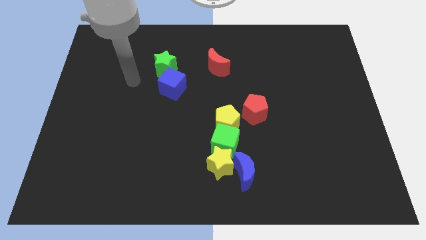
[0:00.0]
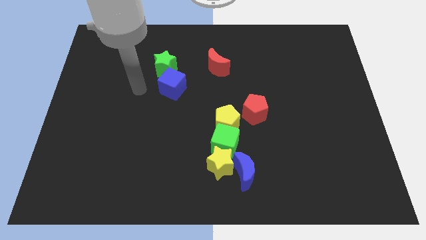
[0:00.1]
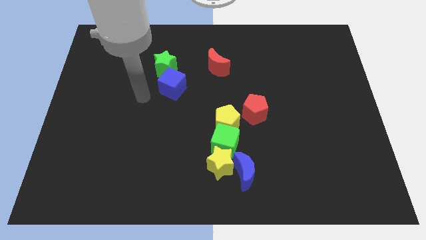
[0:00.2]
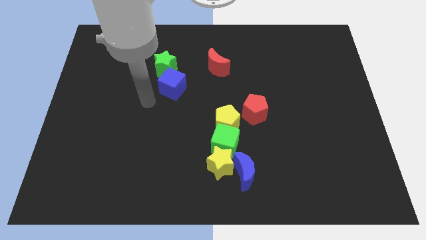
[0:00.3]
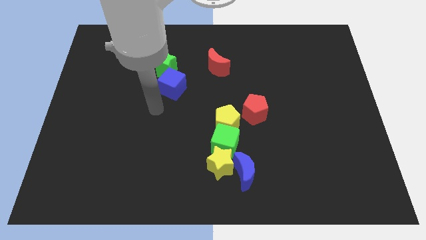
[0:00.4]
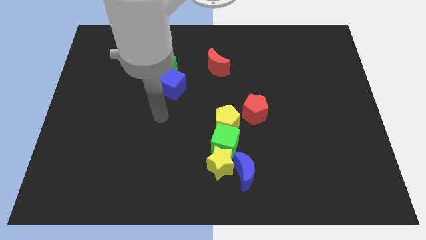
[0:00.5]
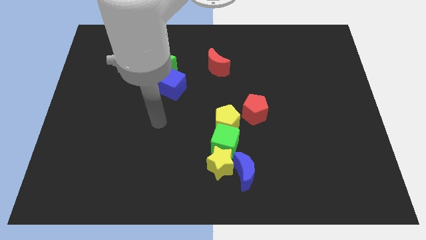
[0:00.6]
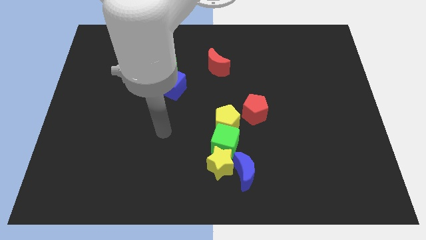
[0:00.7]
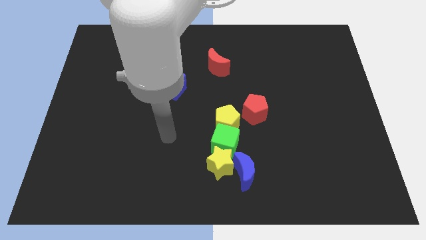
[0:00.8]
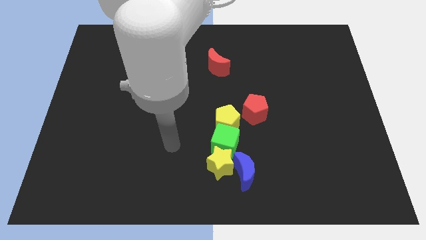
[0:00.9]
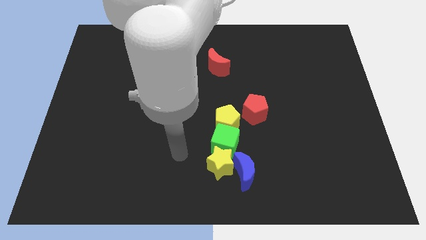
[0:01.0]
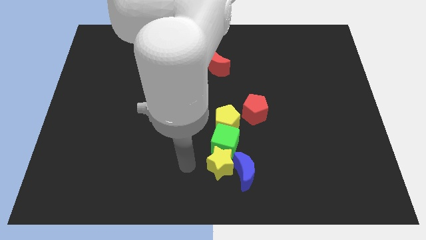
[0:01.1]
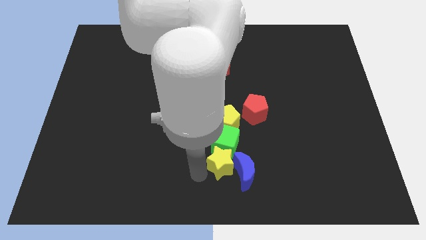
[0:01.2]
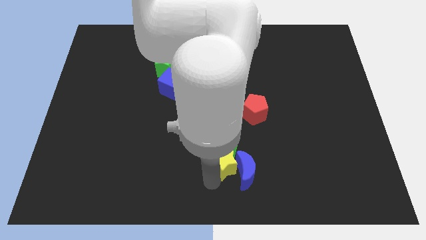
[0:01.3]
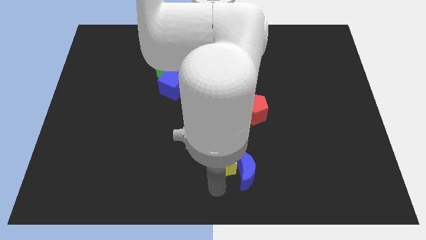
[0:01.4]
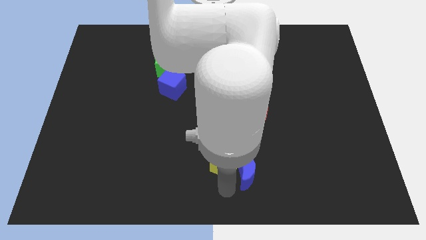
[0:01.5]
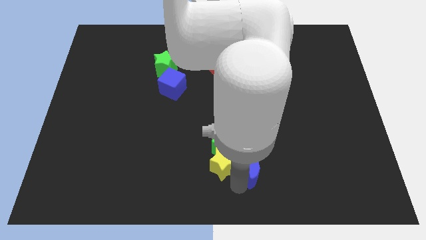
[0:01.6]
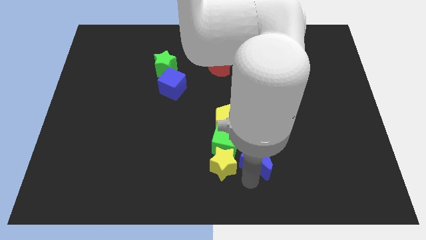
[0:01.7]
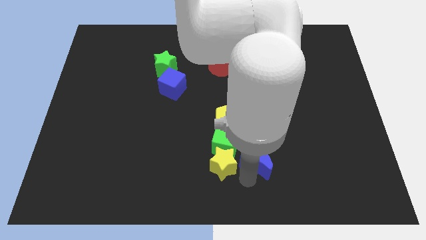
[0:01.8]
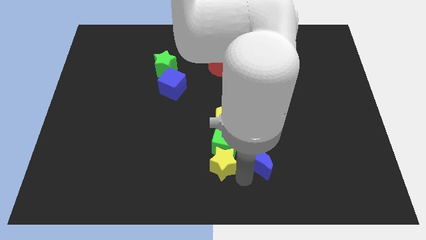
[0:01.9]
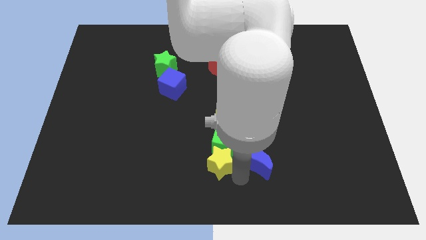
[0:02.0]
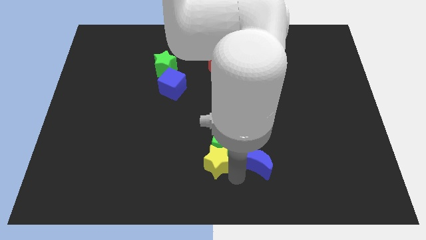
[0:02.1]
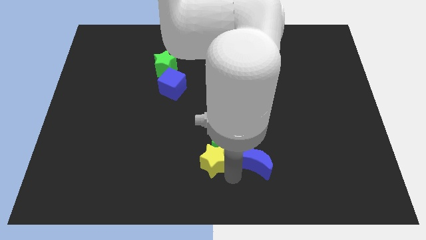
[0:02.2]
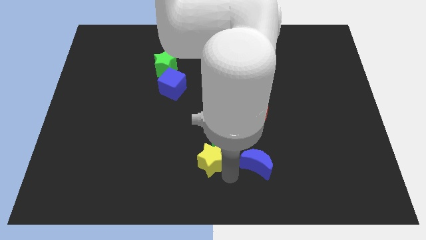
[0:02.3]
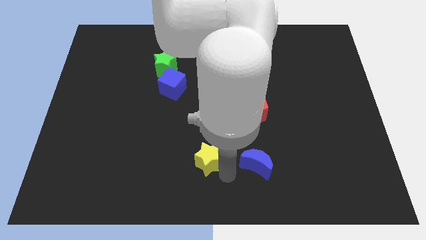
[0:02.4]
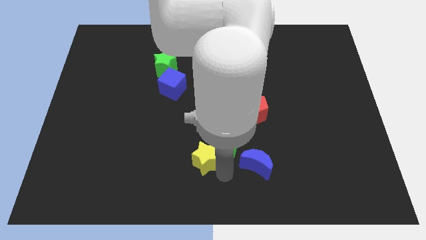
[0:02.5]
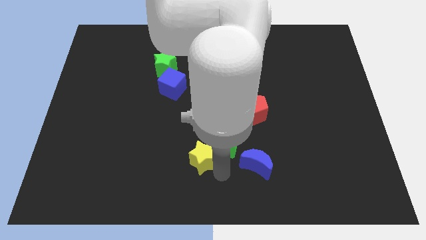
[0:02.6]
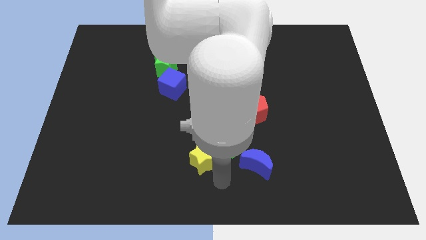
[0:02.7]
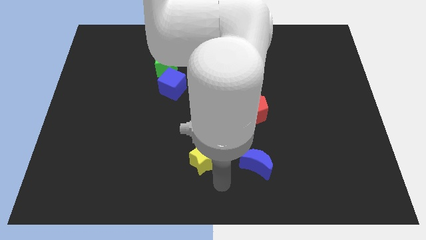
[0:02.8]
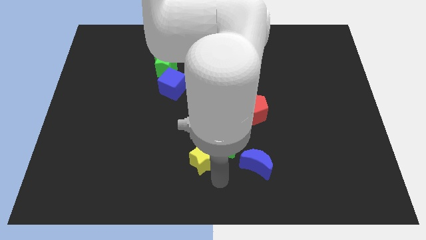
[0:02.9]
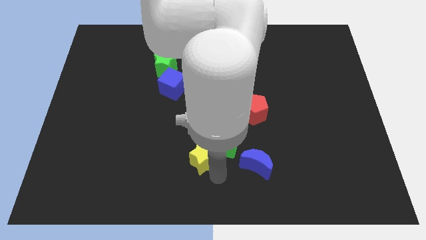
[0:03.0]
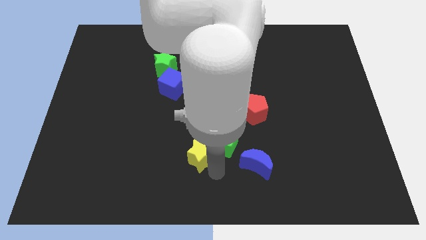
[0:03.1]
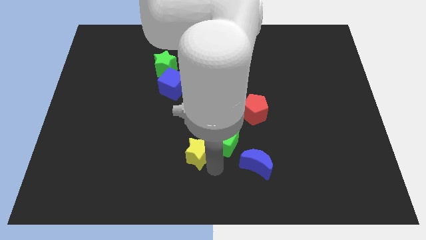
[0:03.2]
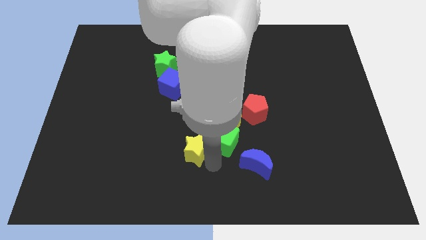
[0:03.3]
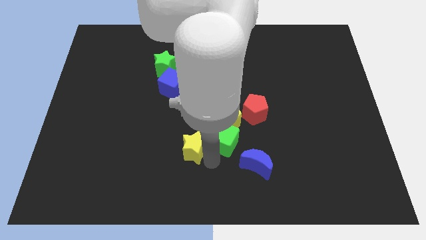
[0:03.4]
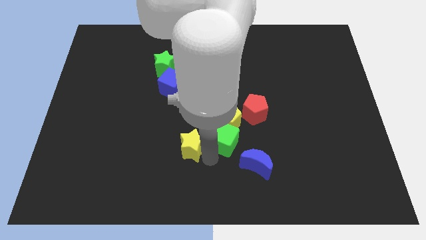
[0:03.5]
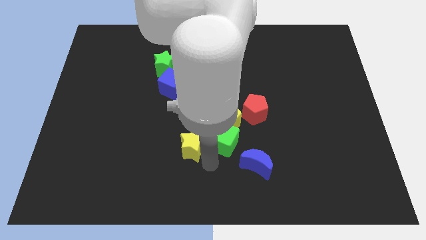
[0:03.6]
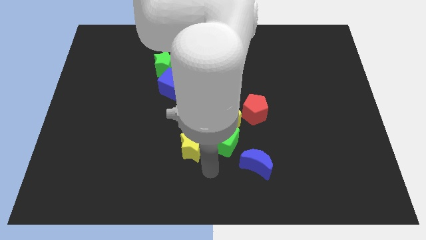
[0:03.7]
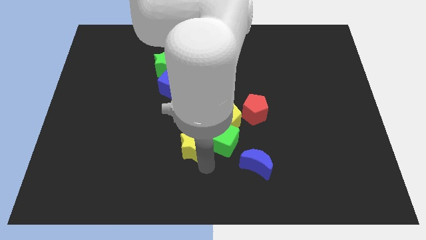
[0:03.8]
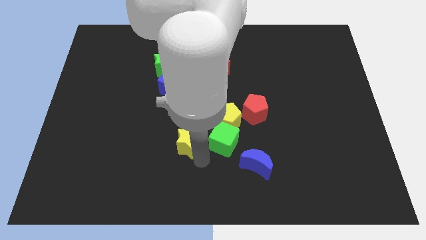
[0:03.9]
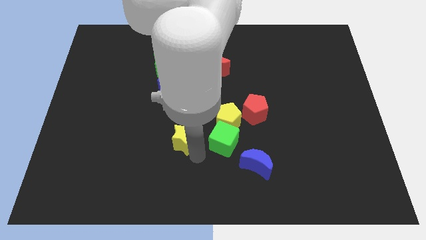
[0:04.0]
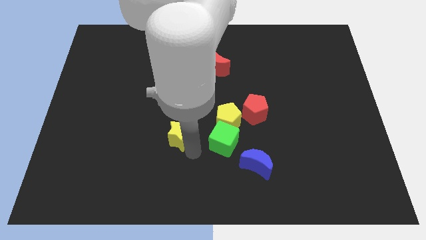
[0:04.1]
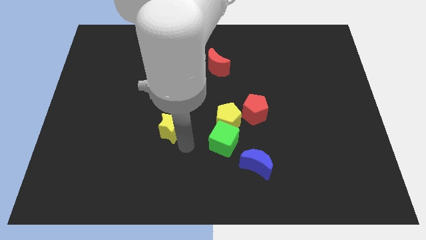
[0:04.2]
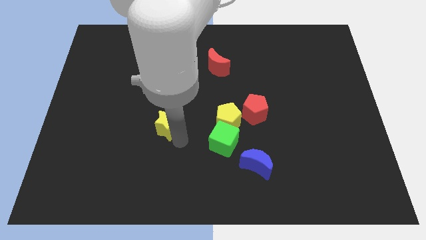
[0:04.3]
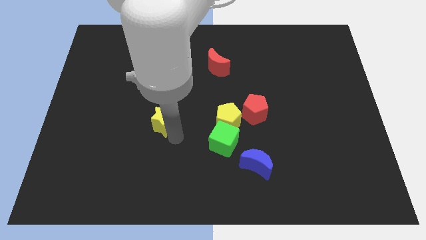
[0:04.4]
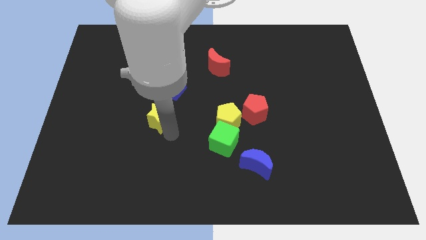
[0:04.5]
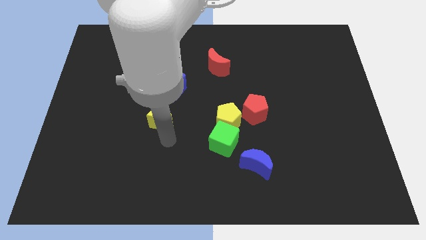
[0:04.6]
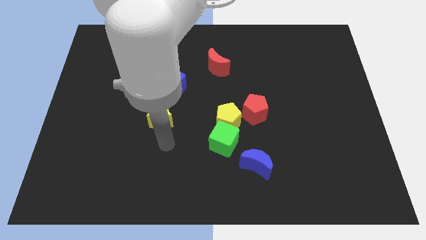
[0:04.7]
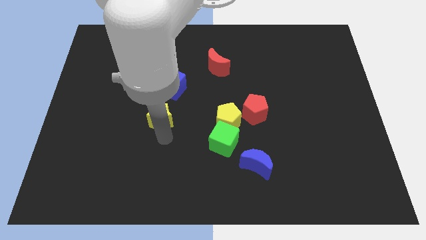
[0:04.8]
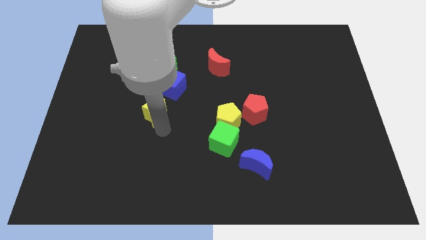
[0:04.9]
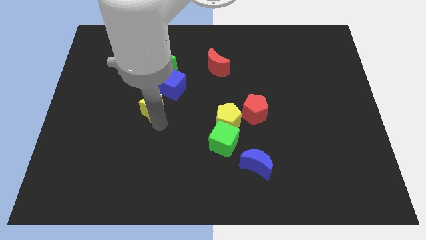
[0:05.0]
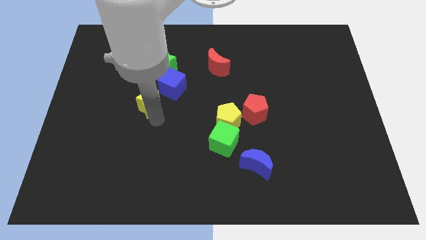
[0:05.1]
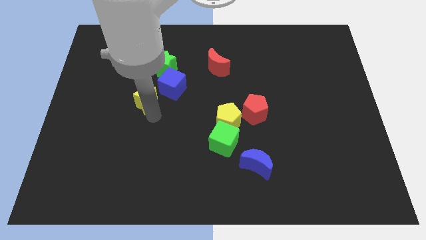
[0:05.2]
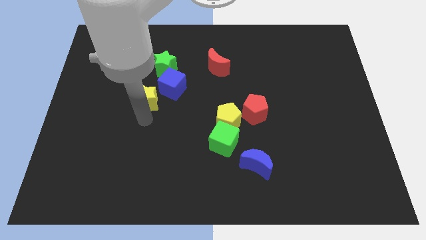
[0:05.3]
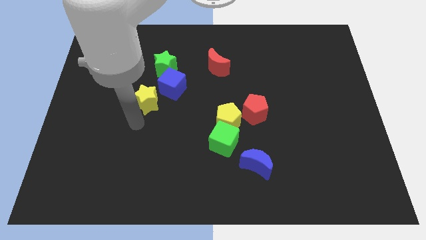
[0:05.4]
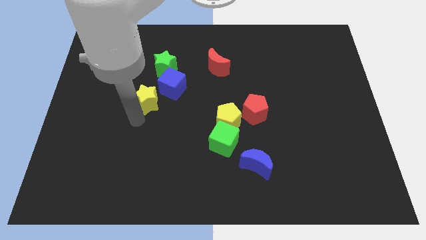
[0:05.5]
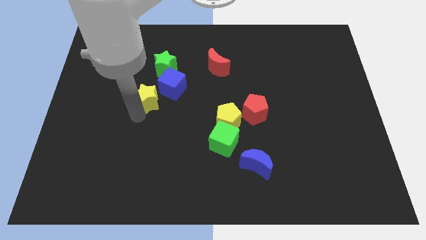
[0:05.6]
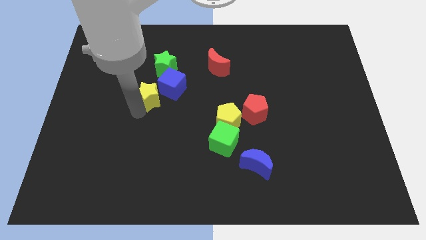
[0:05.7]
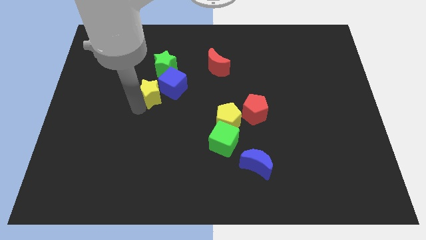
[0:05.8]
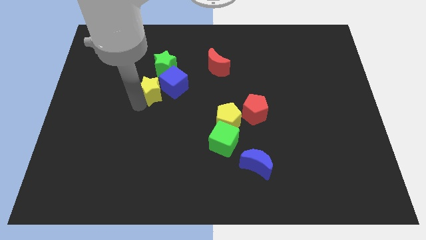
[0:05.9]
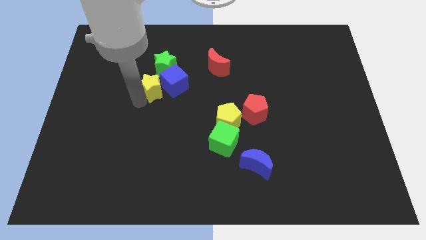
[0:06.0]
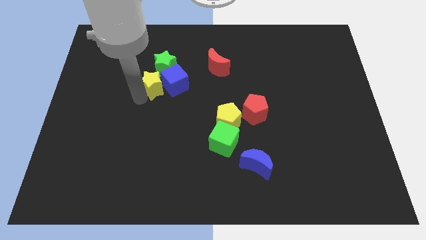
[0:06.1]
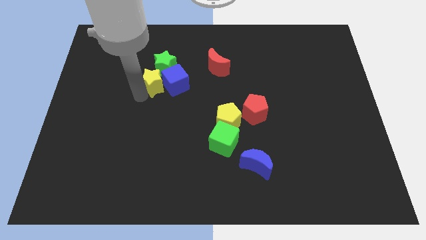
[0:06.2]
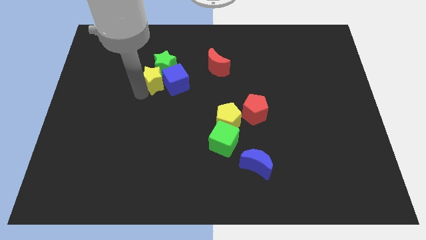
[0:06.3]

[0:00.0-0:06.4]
move the yellow star towards the green star

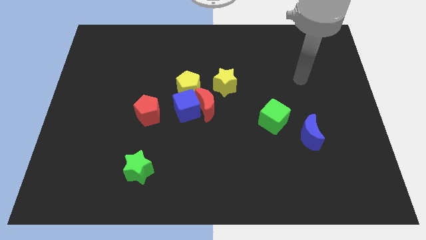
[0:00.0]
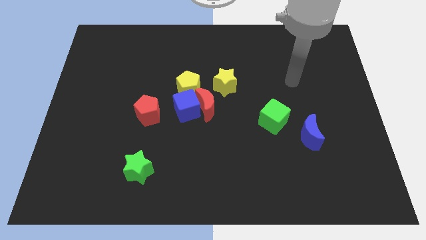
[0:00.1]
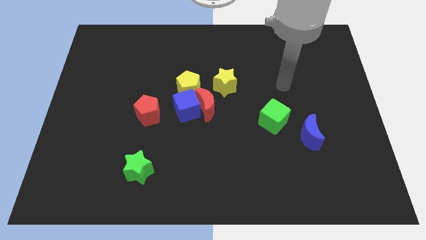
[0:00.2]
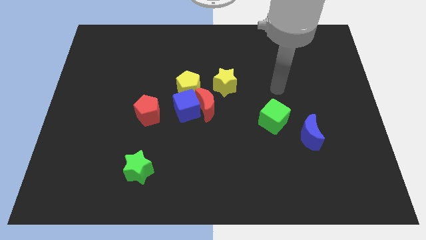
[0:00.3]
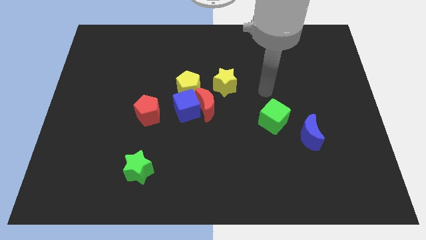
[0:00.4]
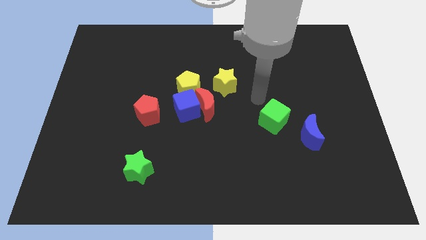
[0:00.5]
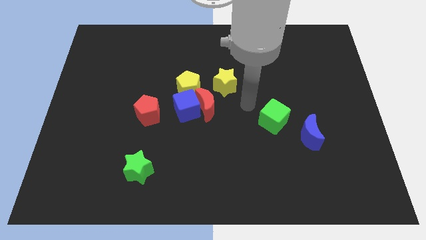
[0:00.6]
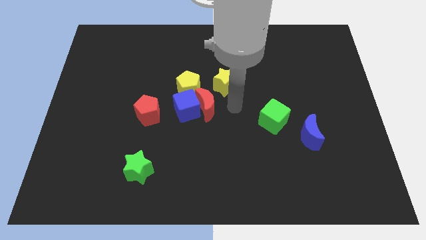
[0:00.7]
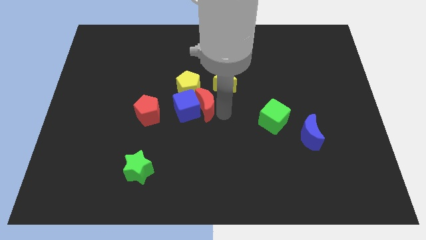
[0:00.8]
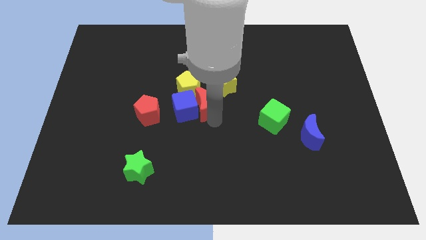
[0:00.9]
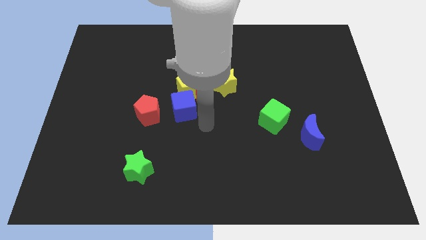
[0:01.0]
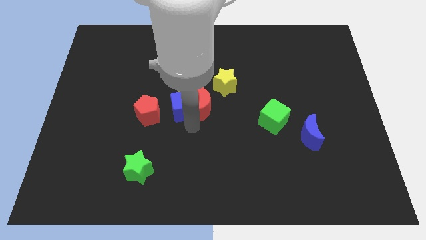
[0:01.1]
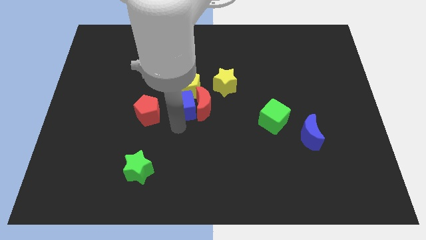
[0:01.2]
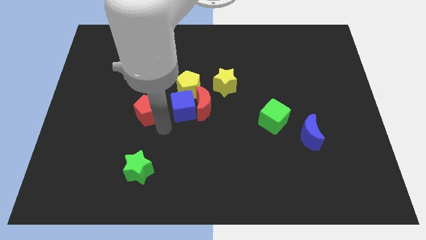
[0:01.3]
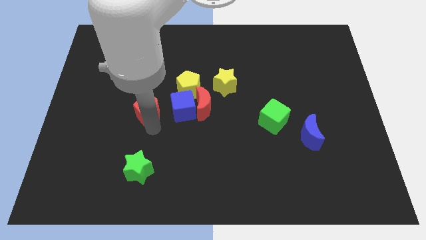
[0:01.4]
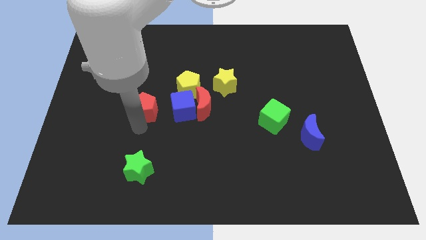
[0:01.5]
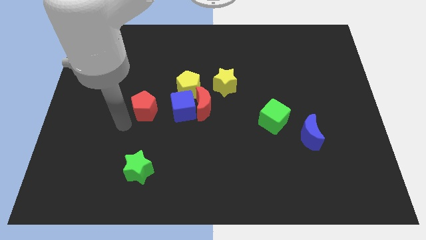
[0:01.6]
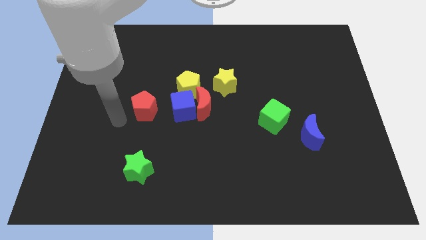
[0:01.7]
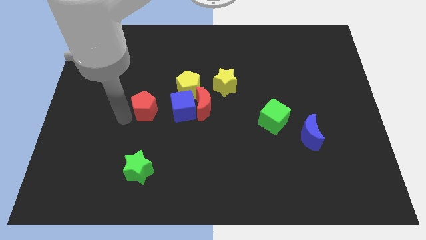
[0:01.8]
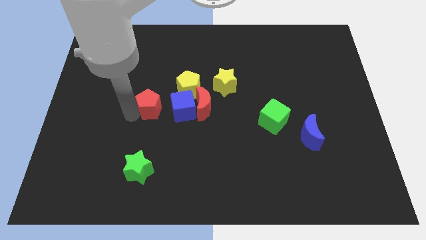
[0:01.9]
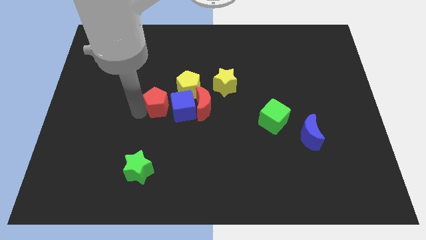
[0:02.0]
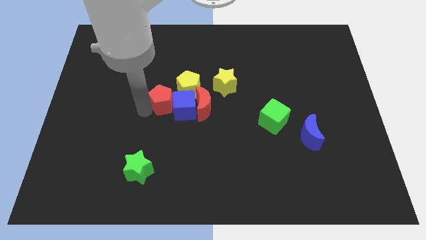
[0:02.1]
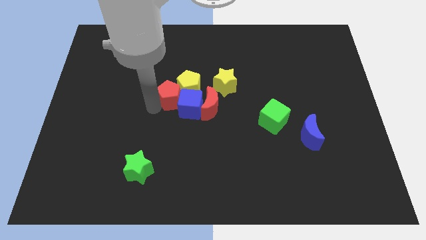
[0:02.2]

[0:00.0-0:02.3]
move the red pentagon close to the yellow pentagon
